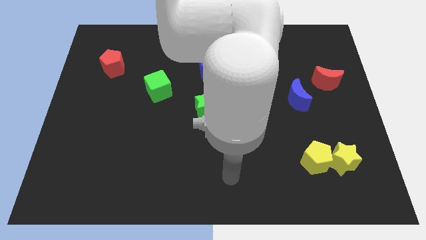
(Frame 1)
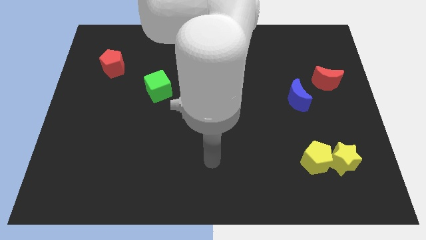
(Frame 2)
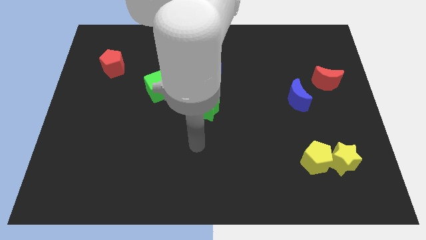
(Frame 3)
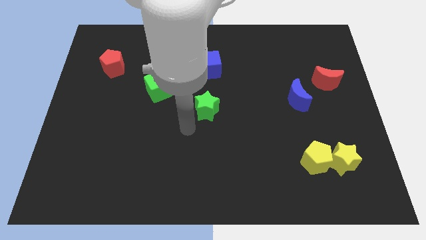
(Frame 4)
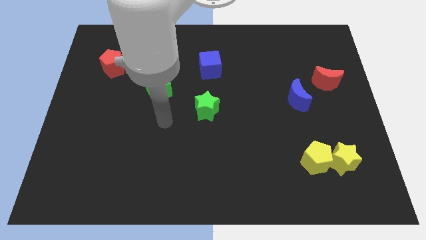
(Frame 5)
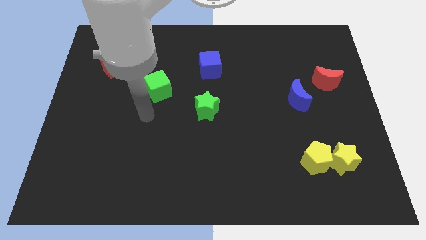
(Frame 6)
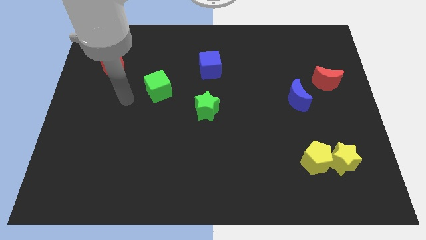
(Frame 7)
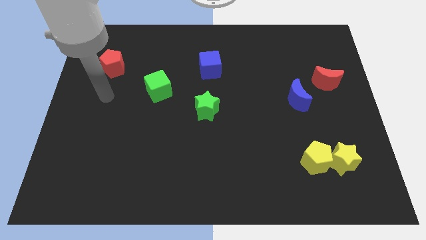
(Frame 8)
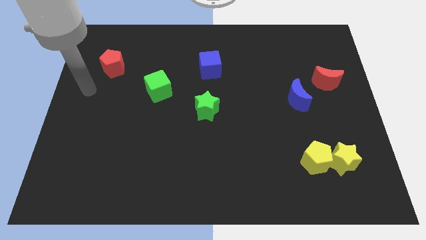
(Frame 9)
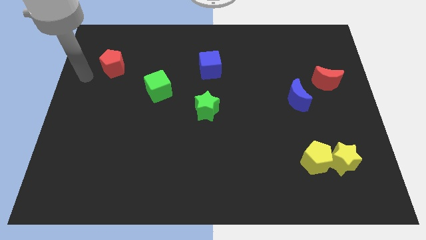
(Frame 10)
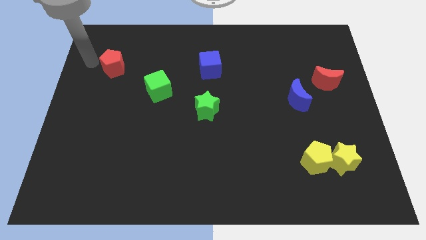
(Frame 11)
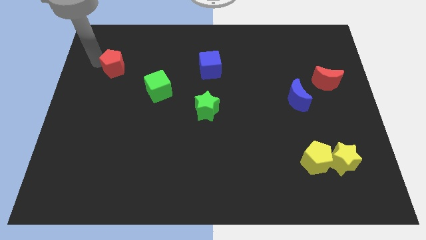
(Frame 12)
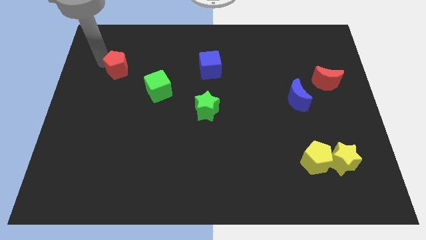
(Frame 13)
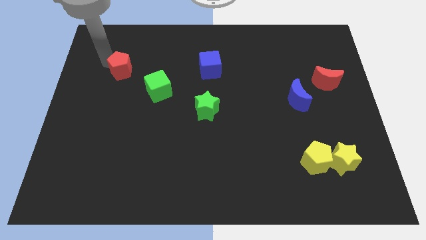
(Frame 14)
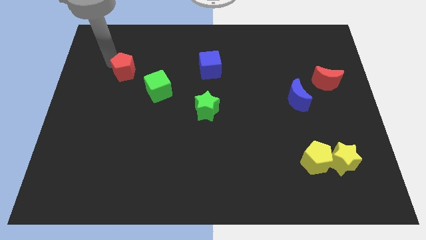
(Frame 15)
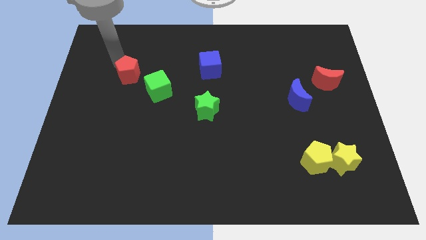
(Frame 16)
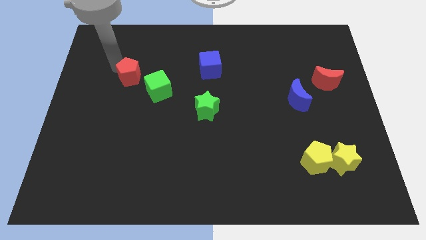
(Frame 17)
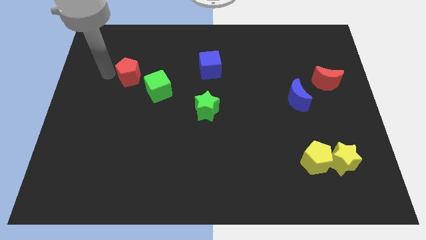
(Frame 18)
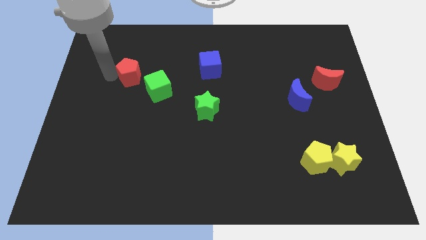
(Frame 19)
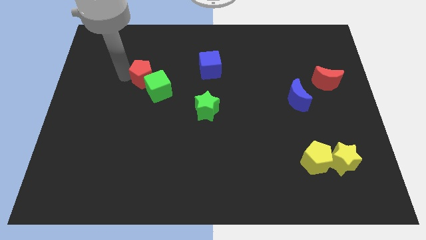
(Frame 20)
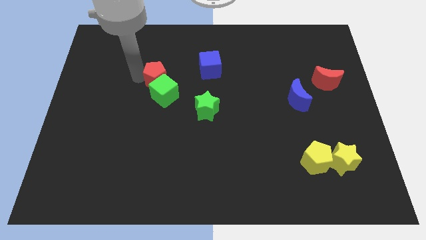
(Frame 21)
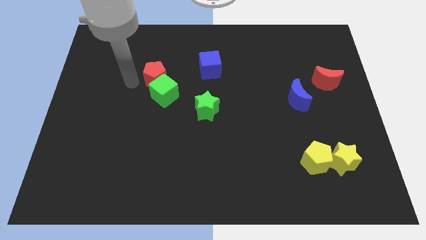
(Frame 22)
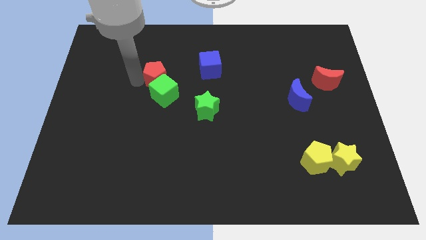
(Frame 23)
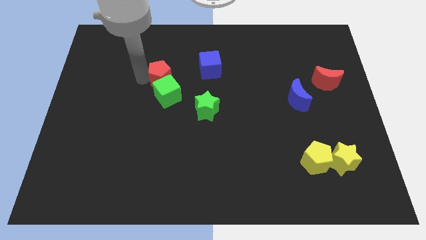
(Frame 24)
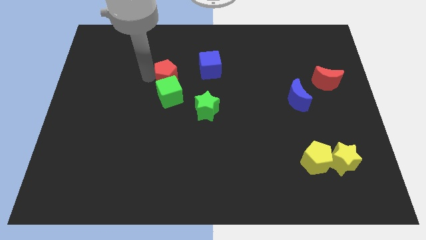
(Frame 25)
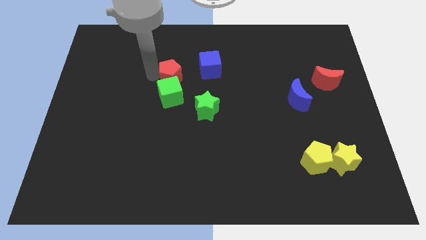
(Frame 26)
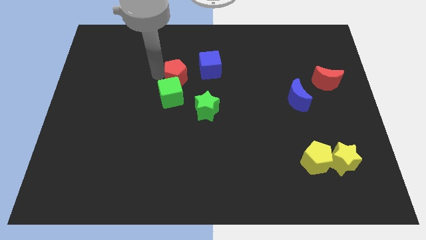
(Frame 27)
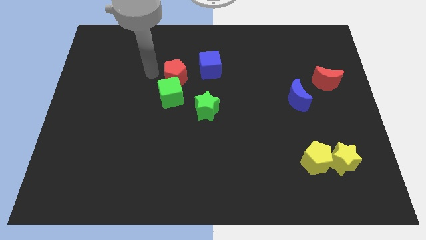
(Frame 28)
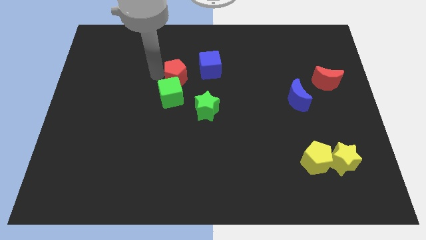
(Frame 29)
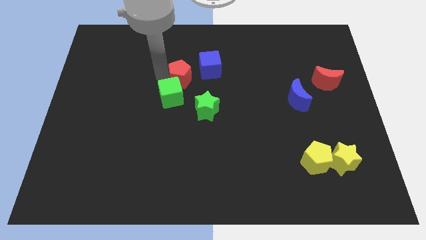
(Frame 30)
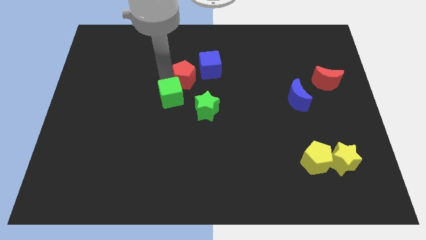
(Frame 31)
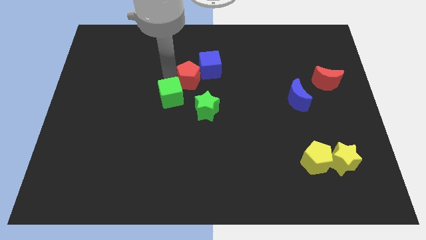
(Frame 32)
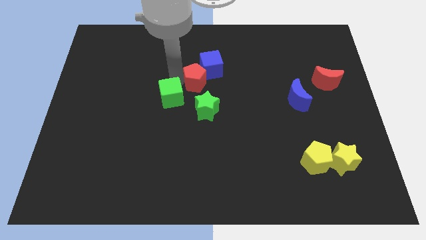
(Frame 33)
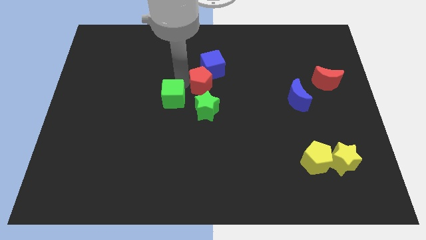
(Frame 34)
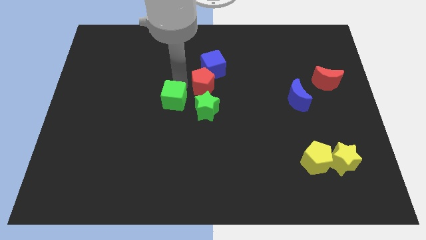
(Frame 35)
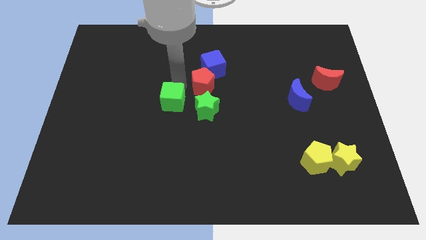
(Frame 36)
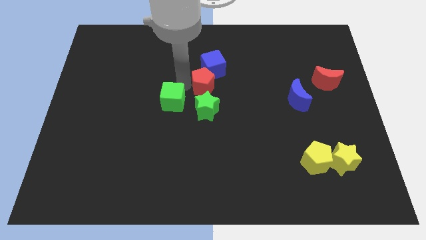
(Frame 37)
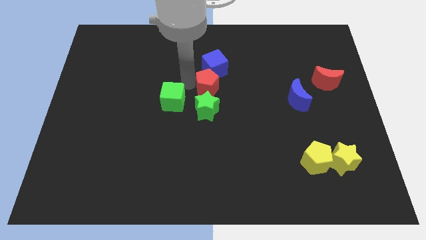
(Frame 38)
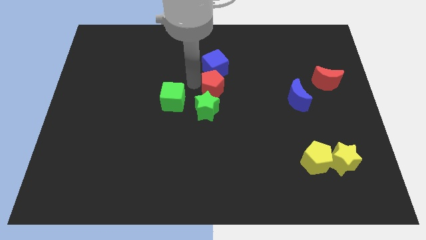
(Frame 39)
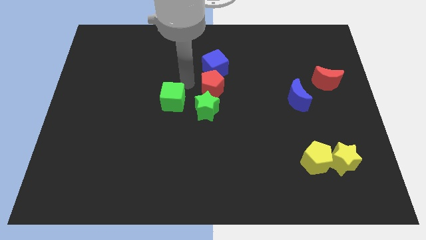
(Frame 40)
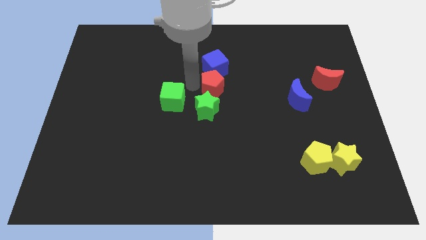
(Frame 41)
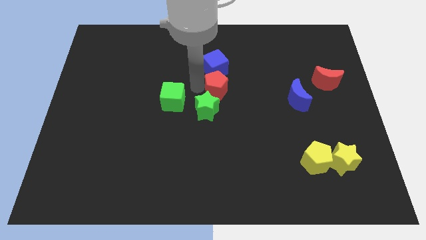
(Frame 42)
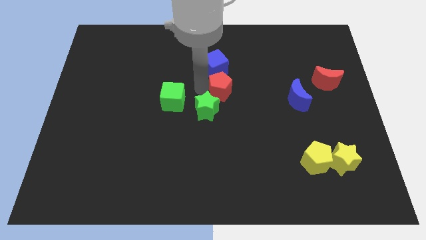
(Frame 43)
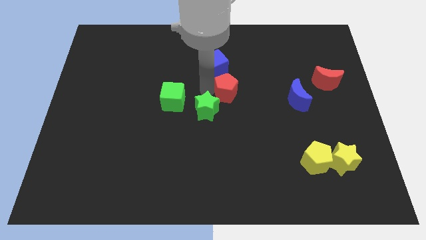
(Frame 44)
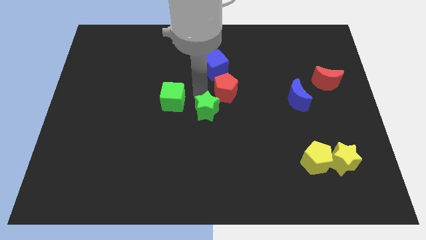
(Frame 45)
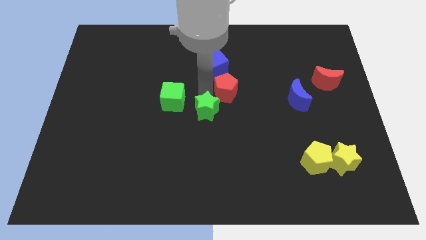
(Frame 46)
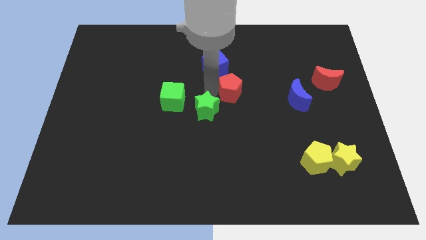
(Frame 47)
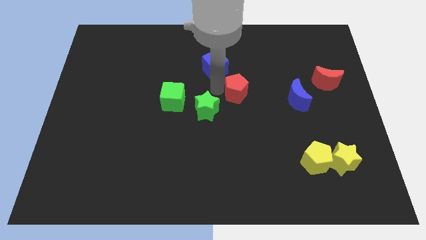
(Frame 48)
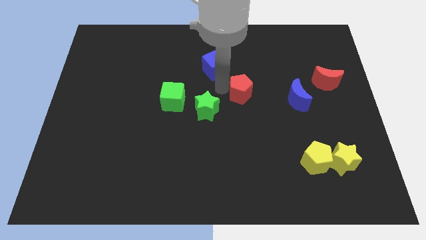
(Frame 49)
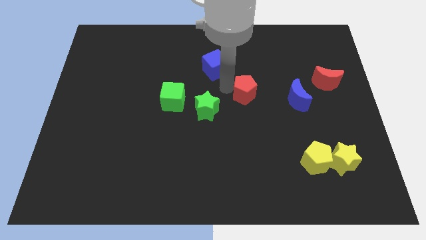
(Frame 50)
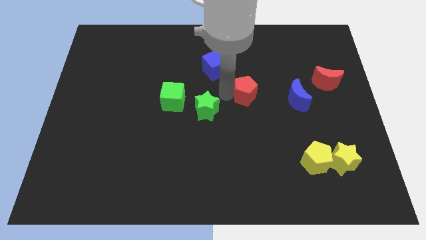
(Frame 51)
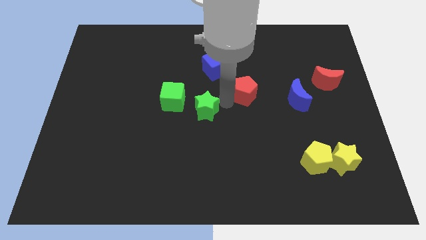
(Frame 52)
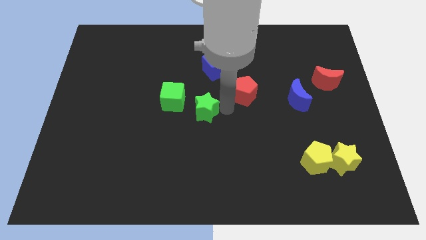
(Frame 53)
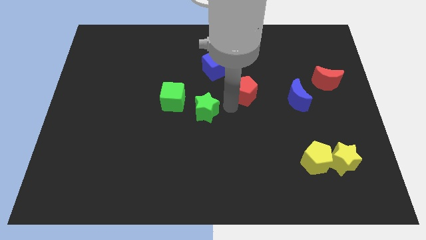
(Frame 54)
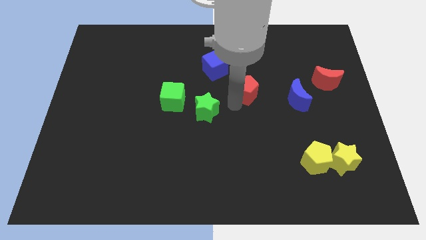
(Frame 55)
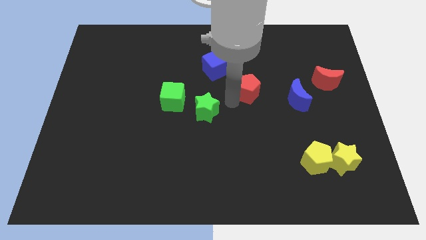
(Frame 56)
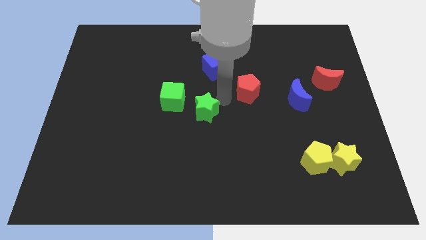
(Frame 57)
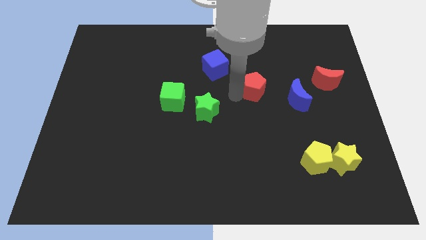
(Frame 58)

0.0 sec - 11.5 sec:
push the red pentagon to the top left of the blue moon

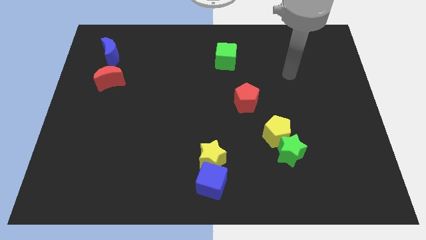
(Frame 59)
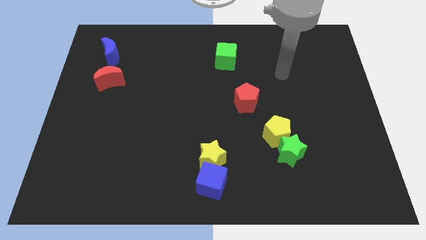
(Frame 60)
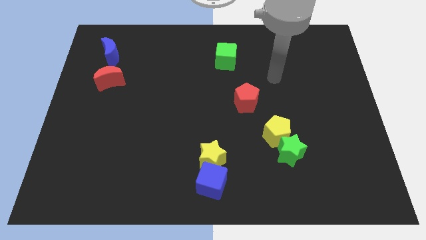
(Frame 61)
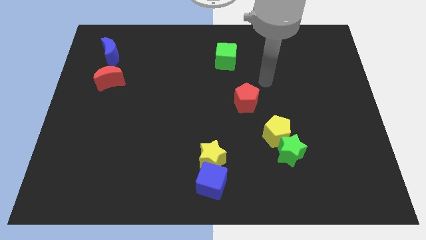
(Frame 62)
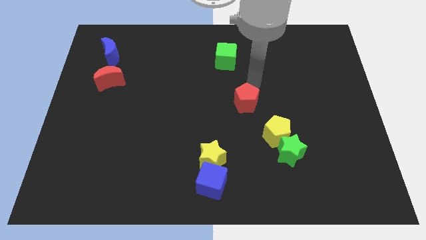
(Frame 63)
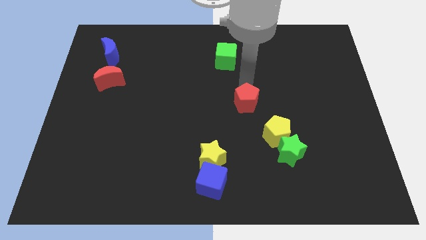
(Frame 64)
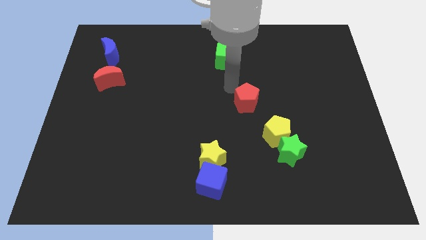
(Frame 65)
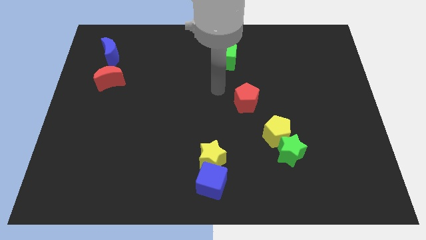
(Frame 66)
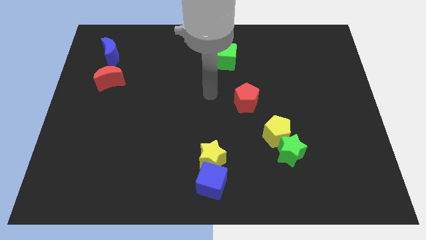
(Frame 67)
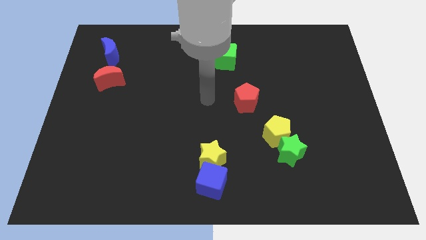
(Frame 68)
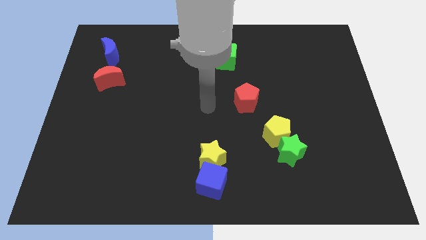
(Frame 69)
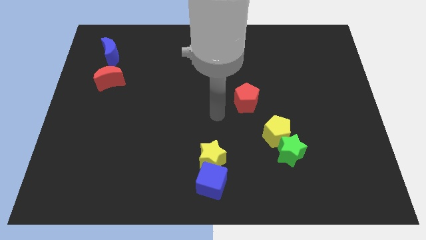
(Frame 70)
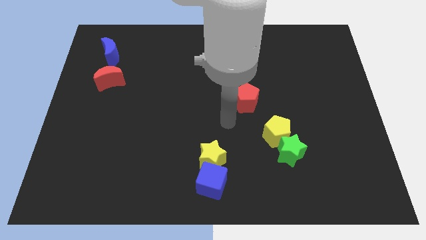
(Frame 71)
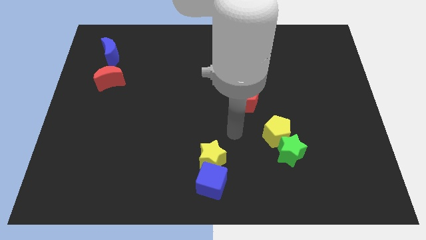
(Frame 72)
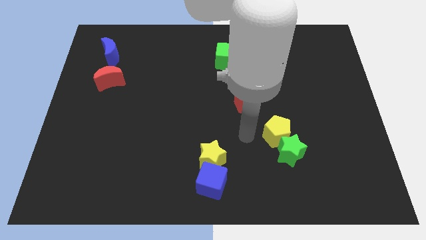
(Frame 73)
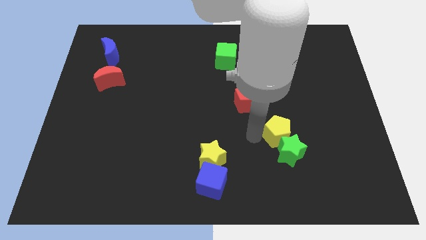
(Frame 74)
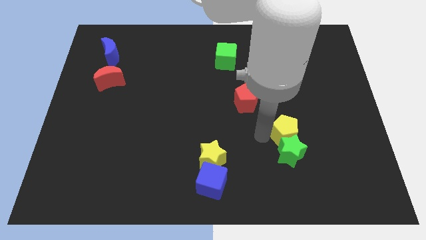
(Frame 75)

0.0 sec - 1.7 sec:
slide the yellow pentagon diagonally up and to the right of the green star
